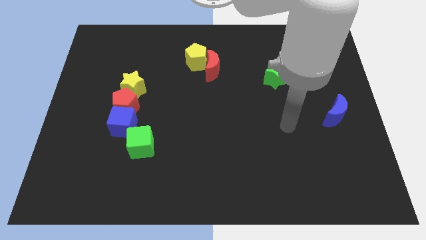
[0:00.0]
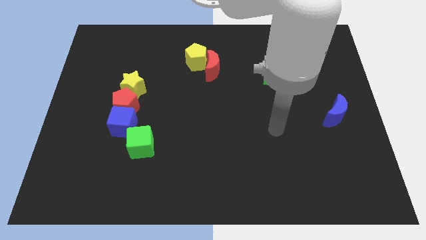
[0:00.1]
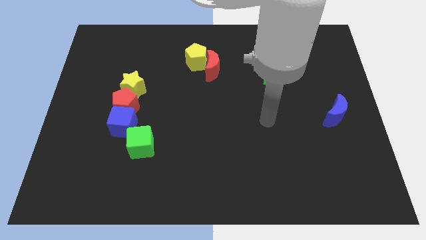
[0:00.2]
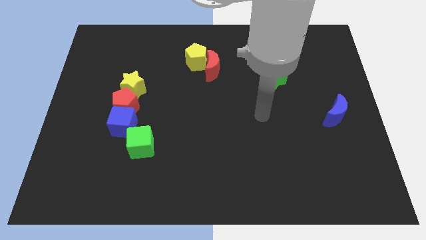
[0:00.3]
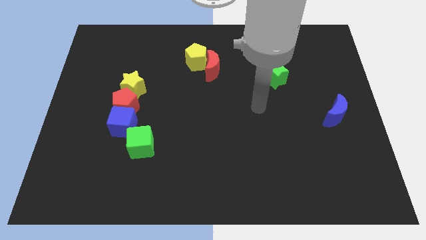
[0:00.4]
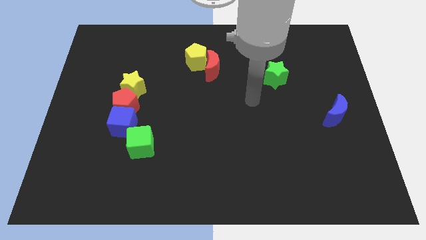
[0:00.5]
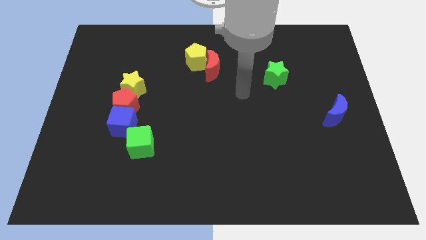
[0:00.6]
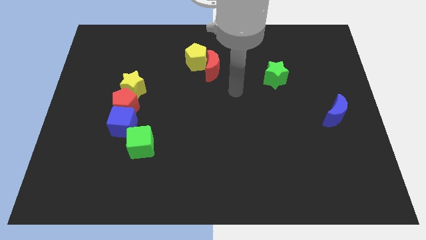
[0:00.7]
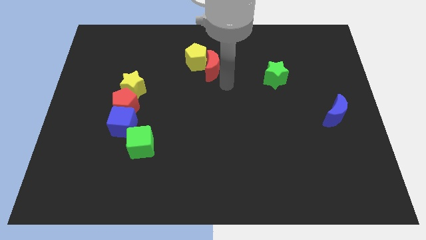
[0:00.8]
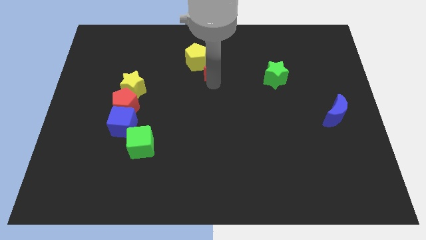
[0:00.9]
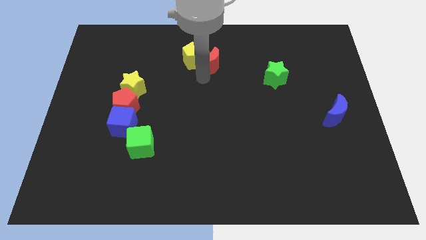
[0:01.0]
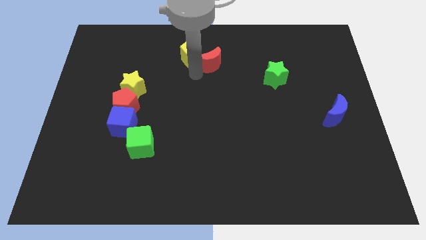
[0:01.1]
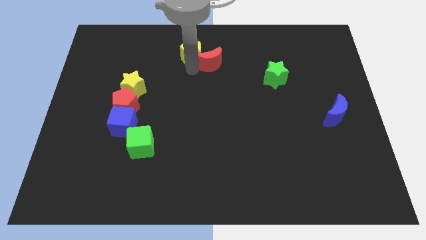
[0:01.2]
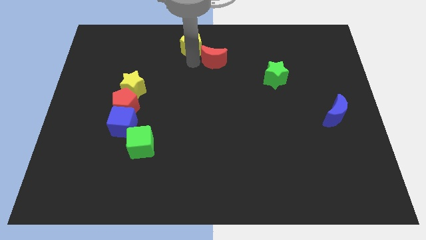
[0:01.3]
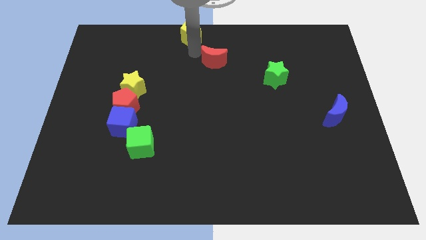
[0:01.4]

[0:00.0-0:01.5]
separate the red moon from the yellow pentagon

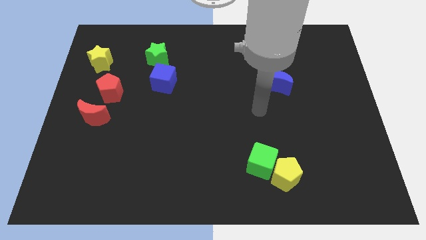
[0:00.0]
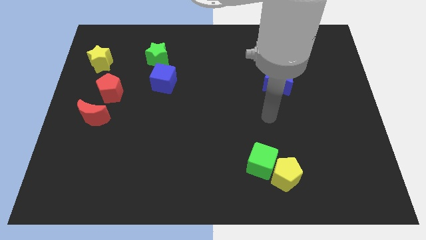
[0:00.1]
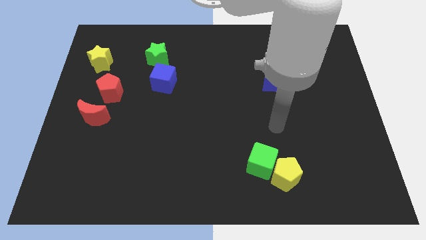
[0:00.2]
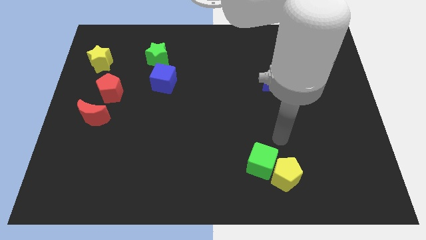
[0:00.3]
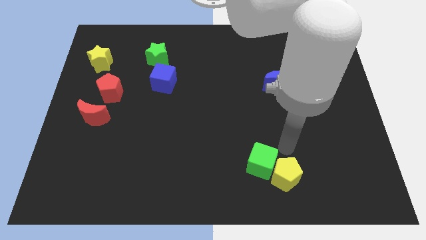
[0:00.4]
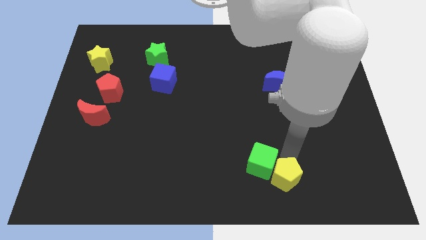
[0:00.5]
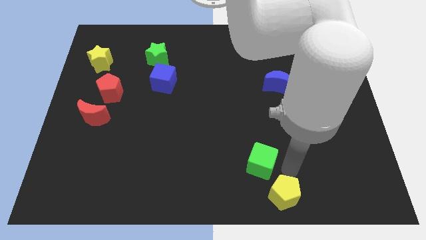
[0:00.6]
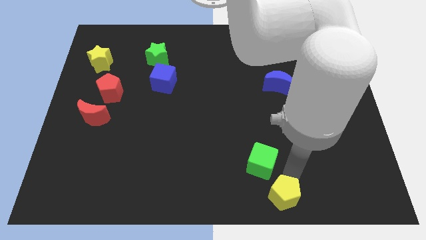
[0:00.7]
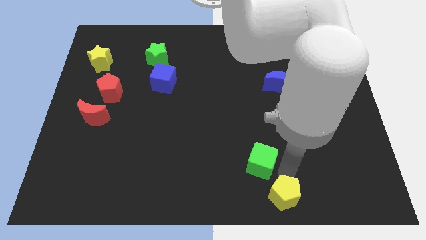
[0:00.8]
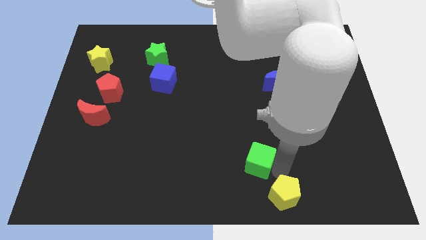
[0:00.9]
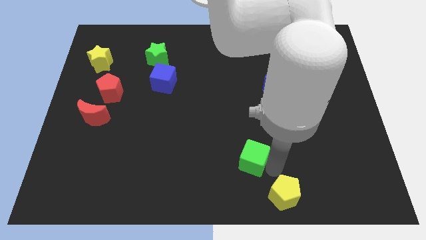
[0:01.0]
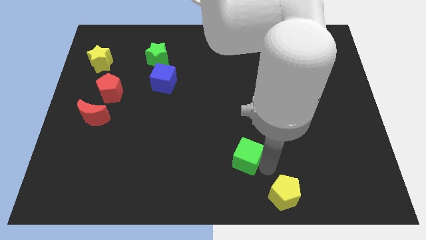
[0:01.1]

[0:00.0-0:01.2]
pull the green cube apart from the yellow pentagon

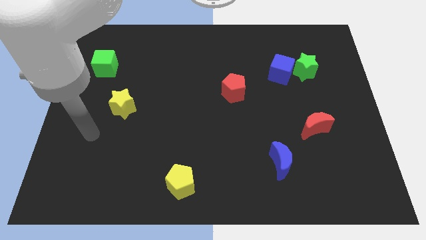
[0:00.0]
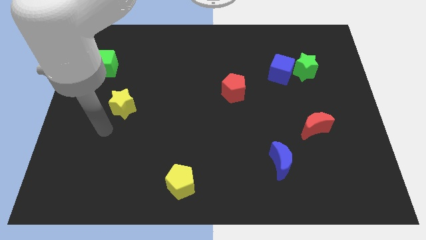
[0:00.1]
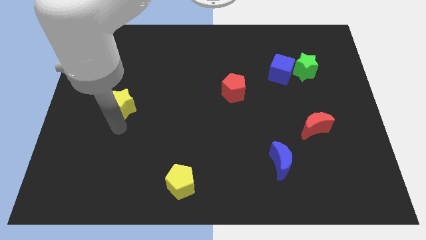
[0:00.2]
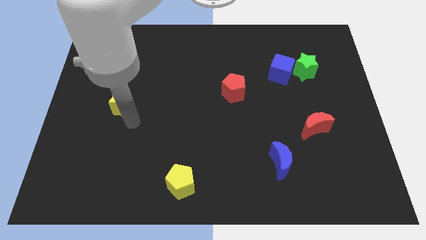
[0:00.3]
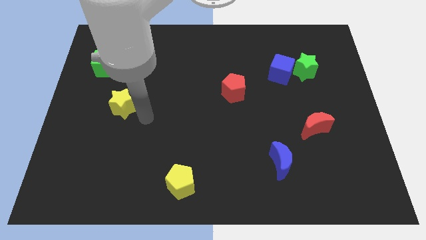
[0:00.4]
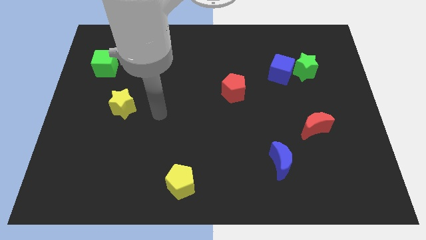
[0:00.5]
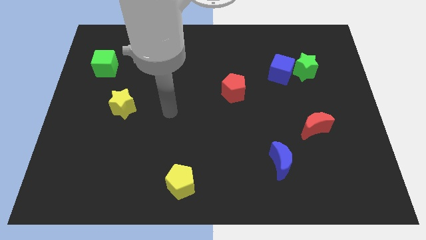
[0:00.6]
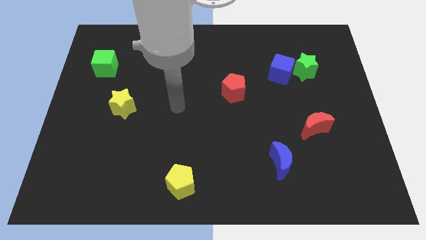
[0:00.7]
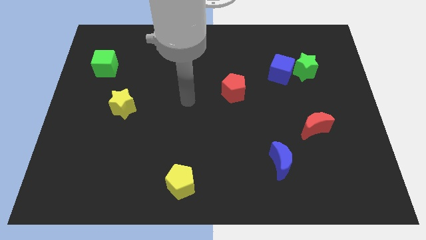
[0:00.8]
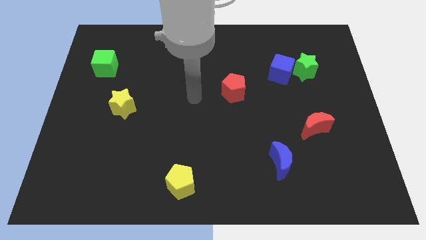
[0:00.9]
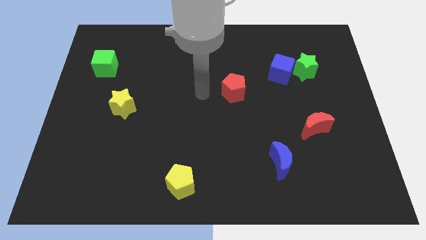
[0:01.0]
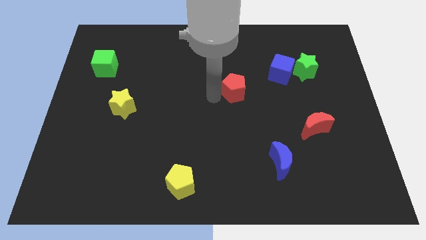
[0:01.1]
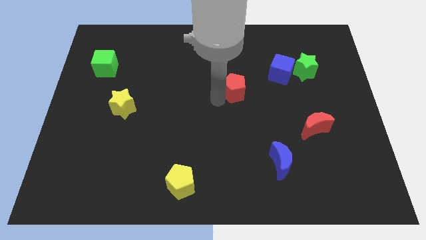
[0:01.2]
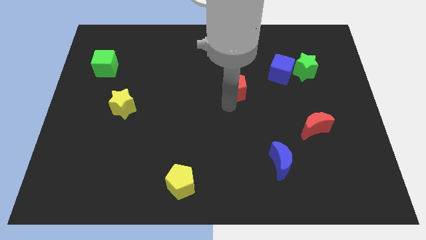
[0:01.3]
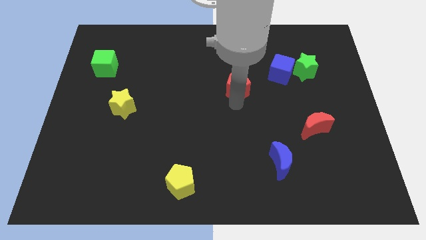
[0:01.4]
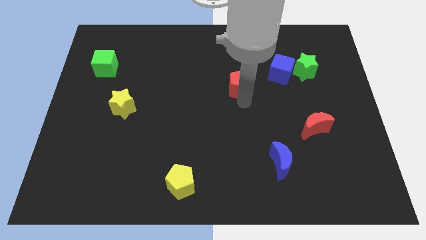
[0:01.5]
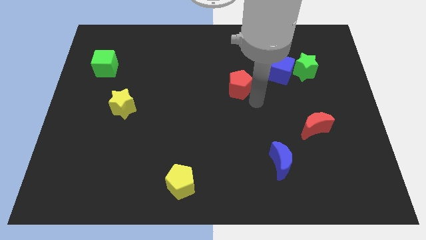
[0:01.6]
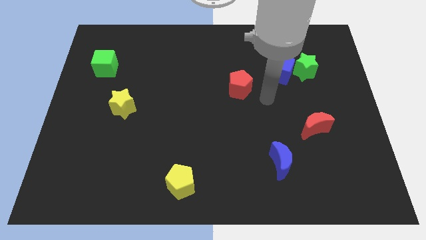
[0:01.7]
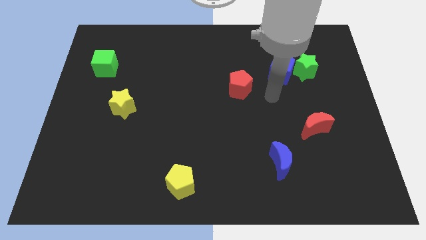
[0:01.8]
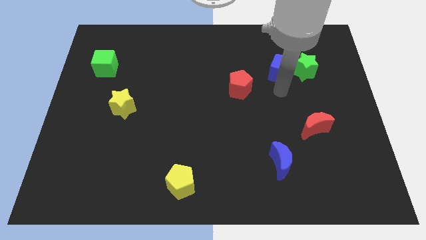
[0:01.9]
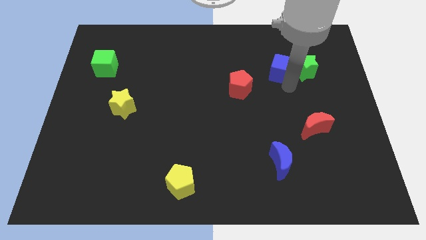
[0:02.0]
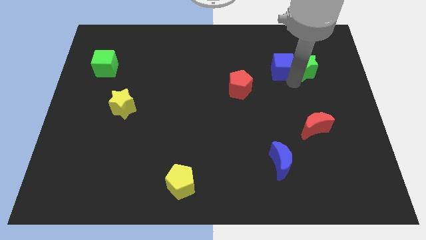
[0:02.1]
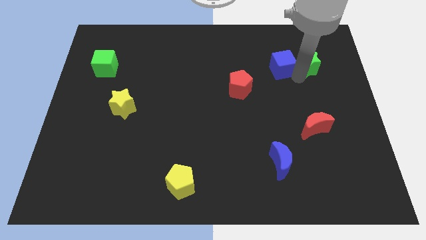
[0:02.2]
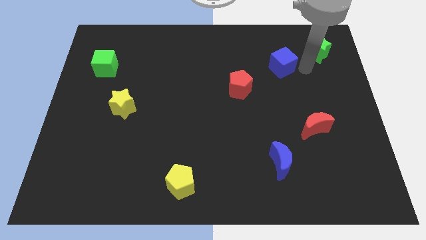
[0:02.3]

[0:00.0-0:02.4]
move the blue cube away from the green star

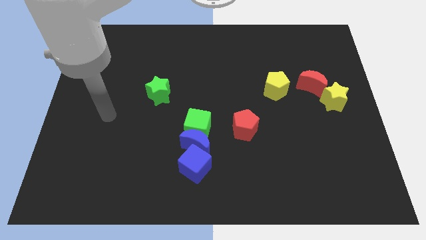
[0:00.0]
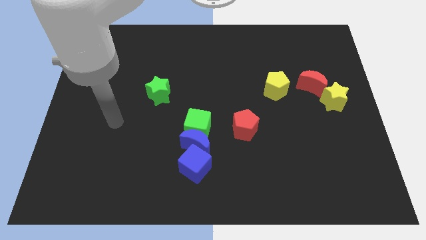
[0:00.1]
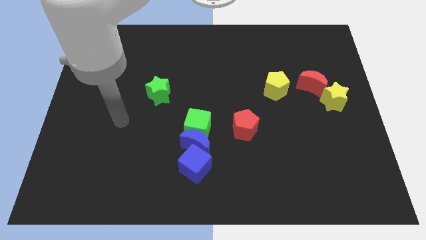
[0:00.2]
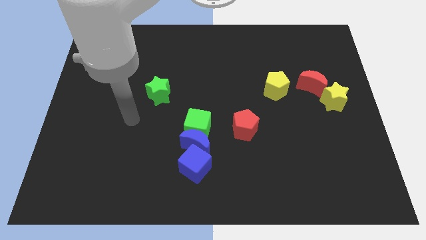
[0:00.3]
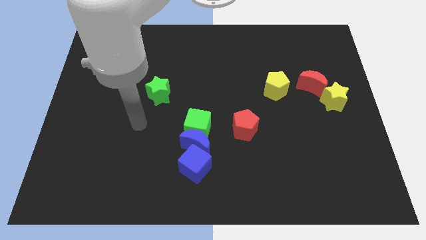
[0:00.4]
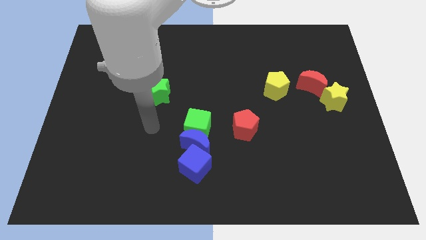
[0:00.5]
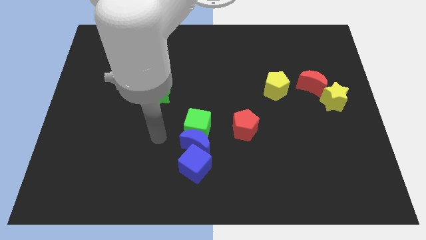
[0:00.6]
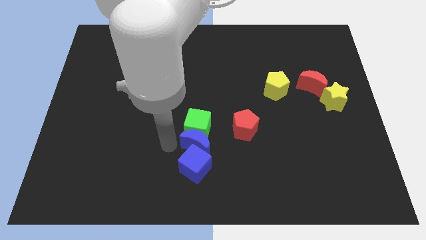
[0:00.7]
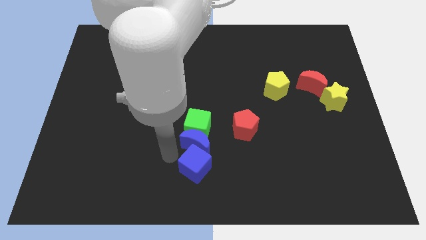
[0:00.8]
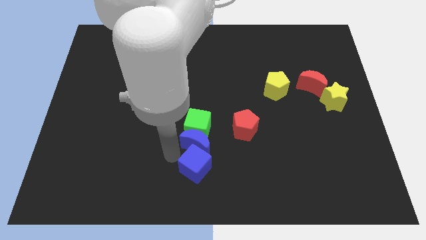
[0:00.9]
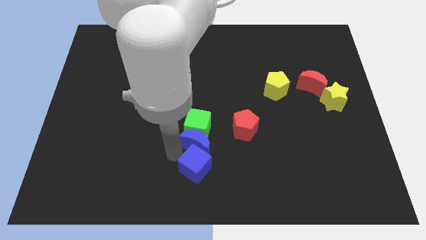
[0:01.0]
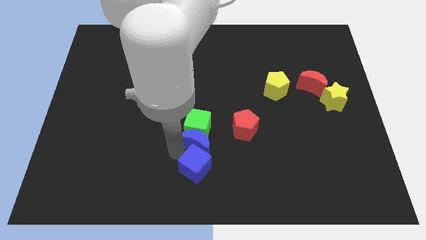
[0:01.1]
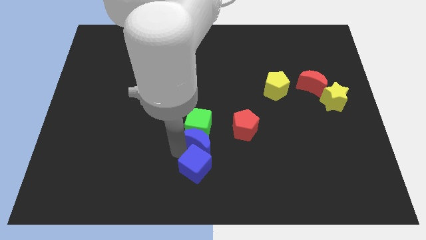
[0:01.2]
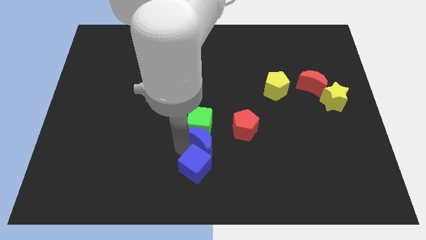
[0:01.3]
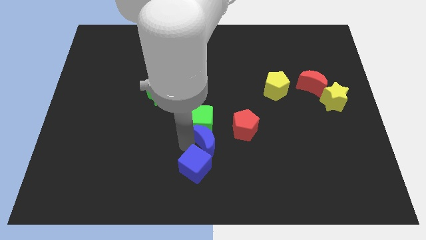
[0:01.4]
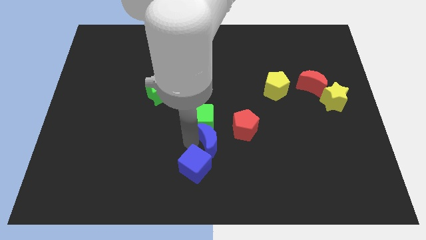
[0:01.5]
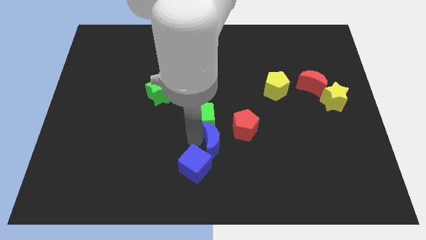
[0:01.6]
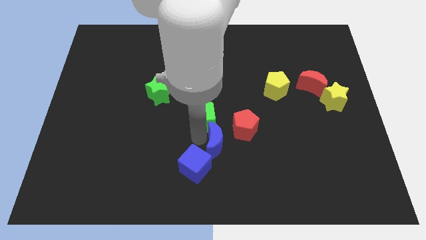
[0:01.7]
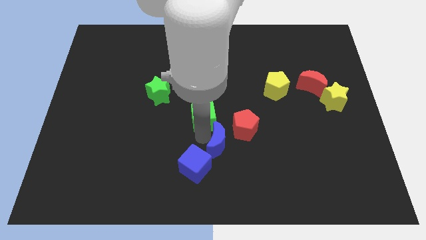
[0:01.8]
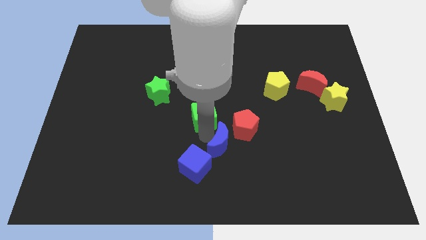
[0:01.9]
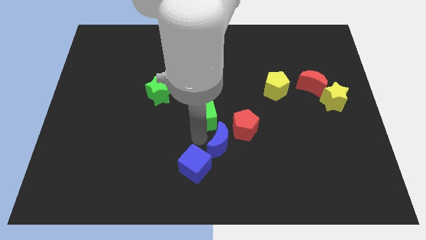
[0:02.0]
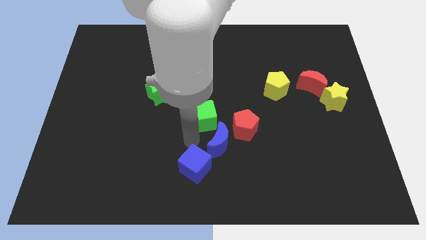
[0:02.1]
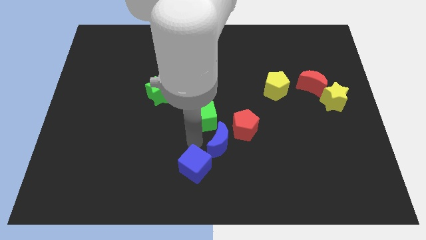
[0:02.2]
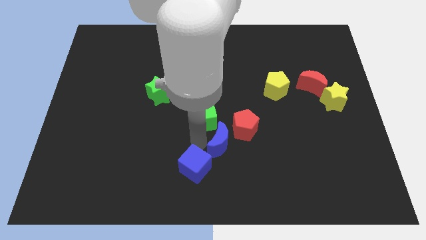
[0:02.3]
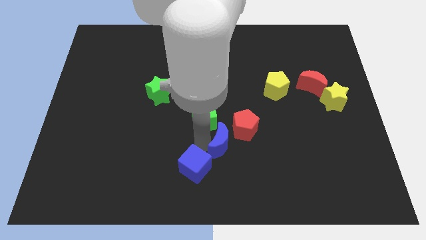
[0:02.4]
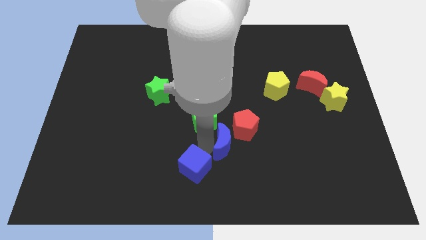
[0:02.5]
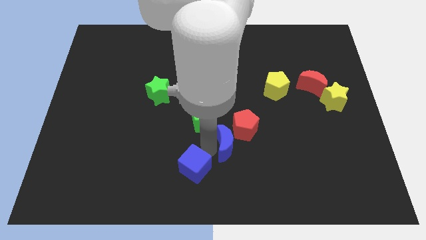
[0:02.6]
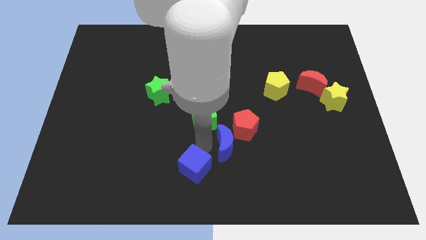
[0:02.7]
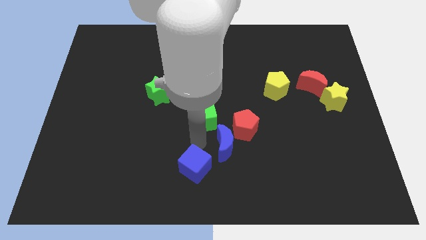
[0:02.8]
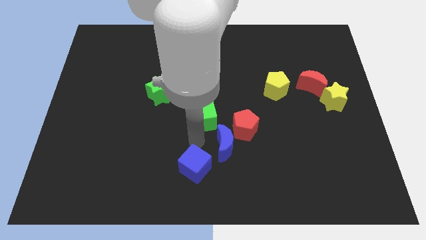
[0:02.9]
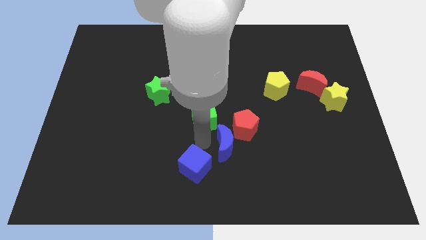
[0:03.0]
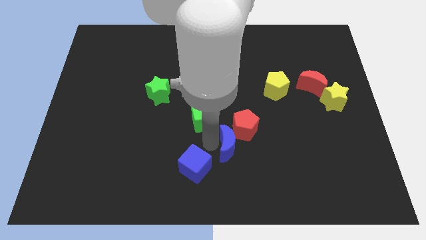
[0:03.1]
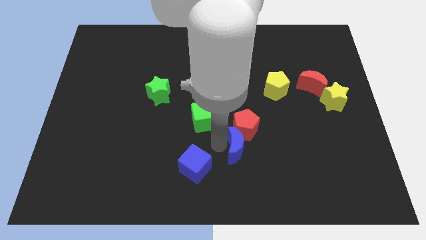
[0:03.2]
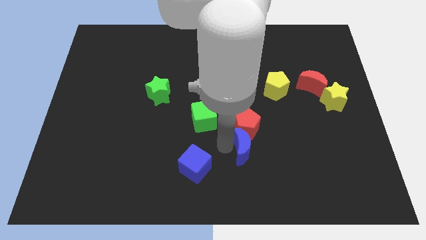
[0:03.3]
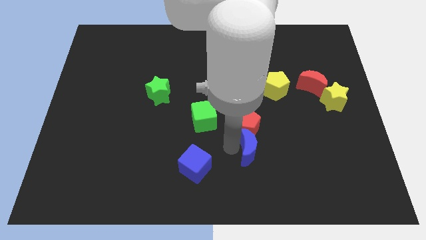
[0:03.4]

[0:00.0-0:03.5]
move the blue moon away from the green cube and blue cube

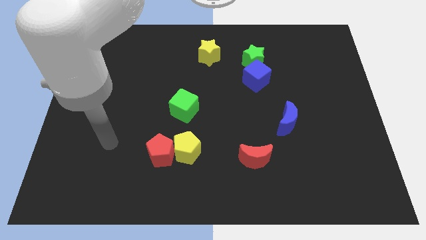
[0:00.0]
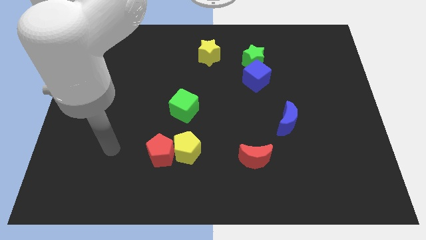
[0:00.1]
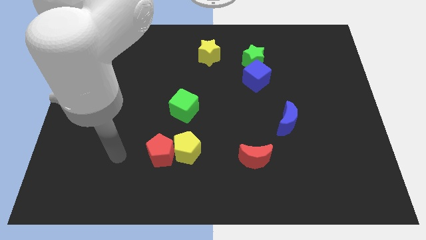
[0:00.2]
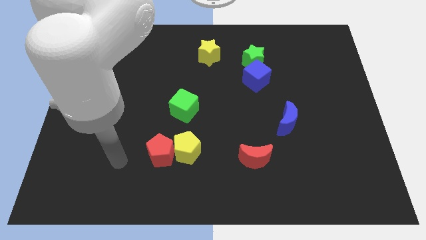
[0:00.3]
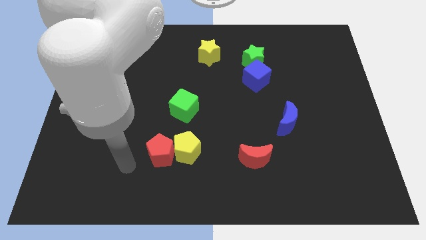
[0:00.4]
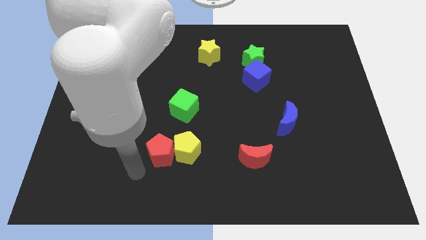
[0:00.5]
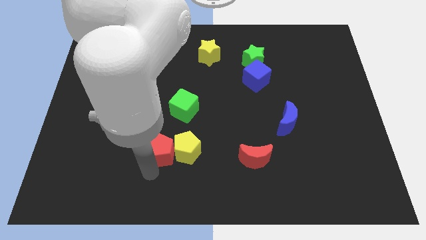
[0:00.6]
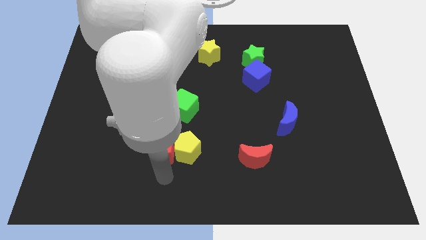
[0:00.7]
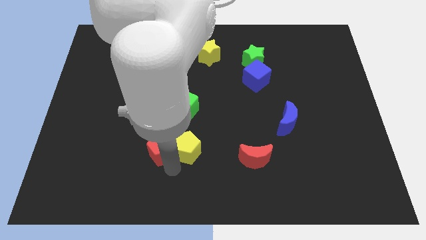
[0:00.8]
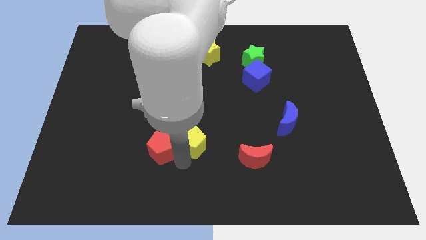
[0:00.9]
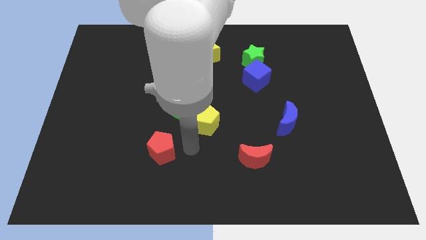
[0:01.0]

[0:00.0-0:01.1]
pull the red pentagon apart from the yellow pentagon
